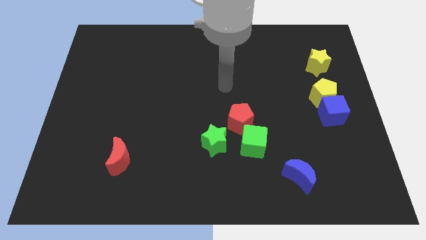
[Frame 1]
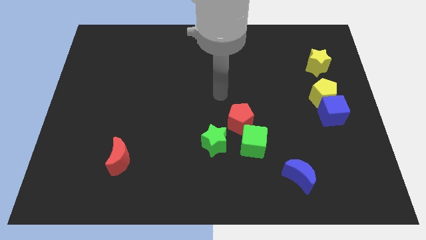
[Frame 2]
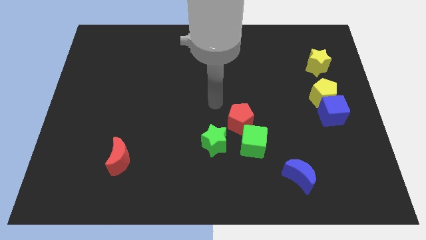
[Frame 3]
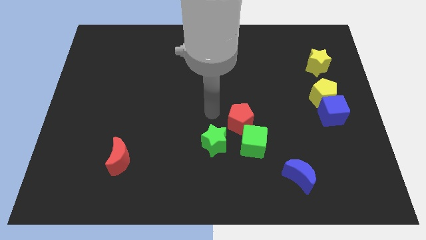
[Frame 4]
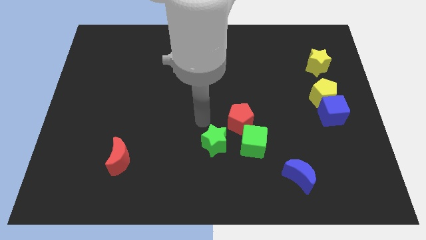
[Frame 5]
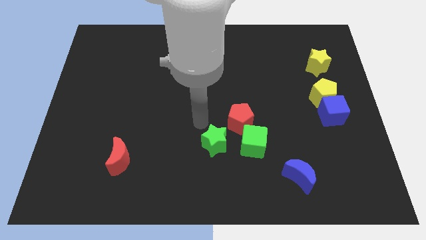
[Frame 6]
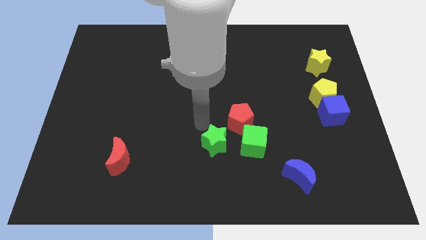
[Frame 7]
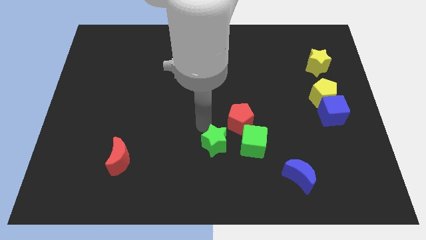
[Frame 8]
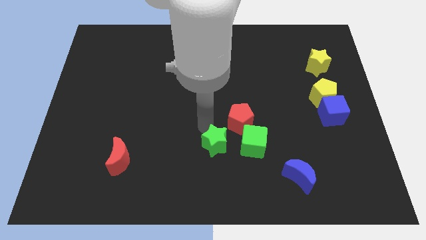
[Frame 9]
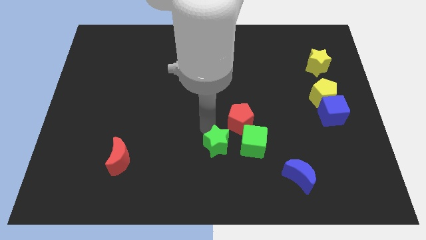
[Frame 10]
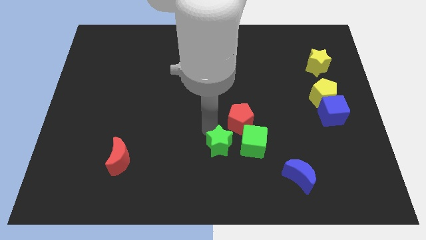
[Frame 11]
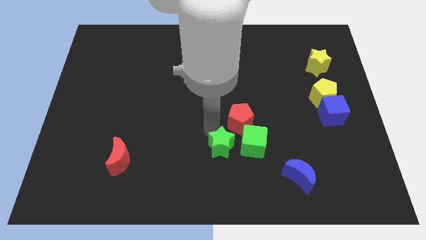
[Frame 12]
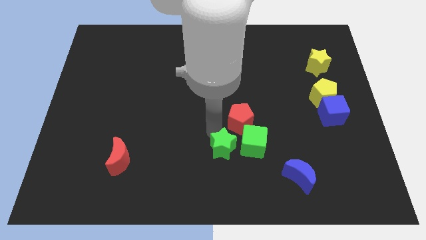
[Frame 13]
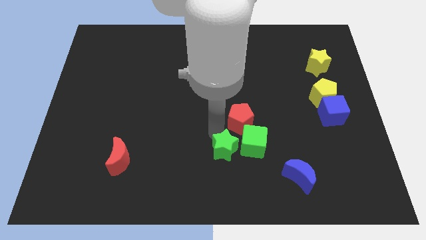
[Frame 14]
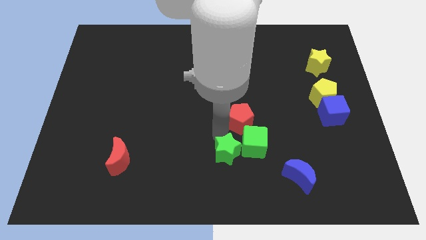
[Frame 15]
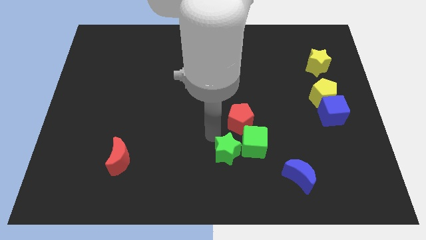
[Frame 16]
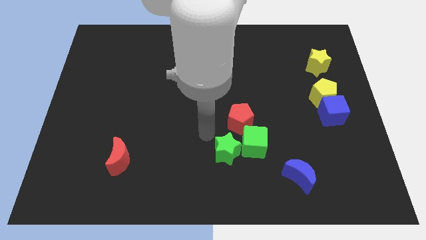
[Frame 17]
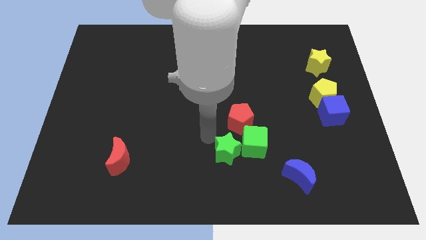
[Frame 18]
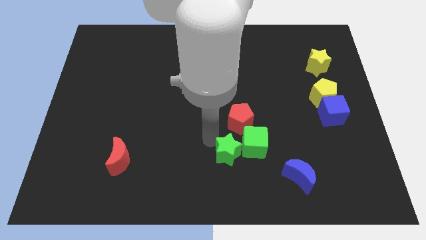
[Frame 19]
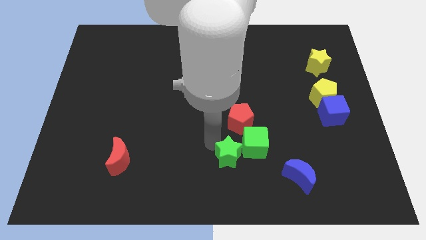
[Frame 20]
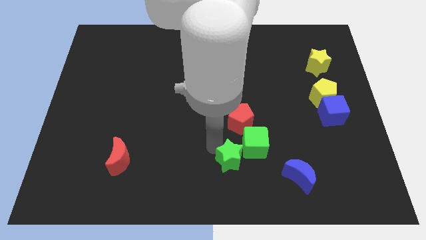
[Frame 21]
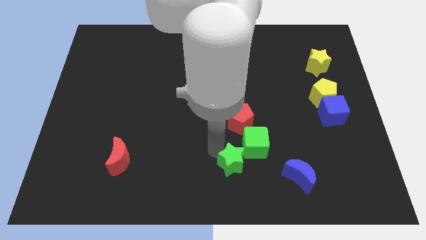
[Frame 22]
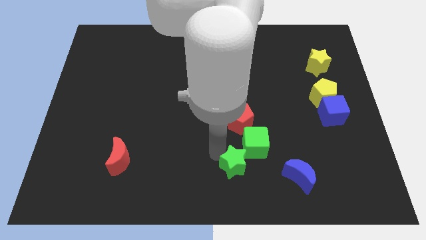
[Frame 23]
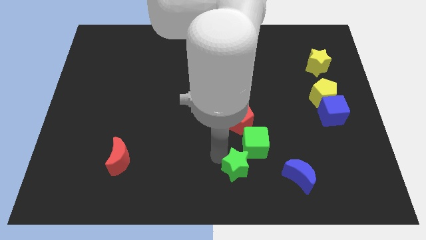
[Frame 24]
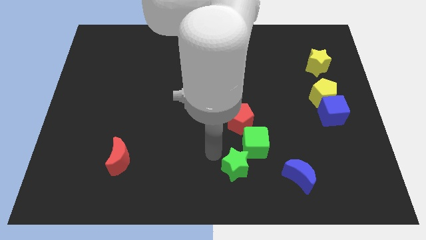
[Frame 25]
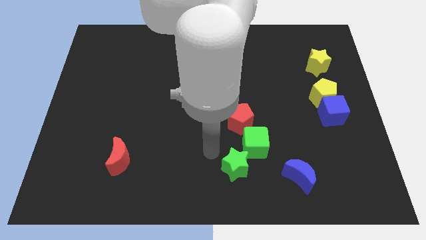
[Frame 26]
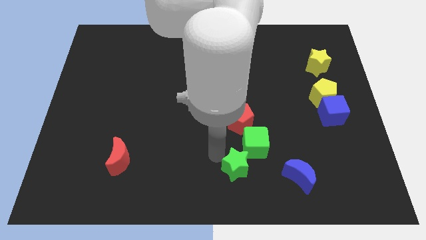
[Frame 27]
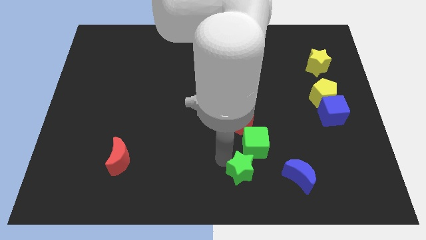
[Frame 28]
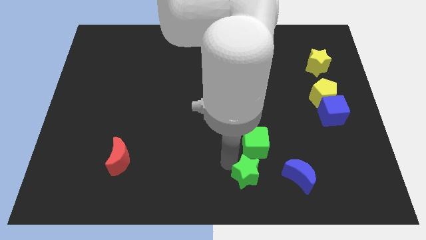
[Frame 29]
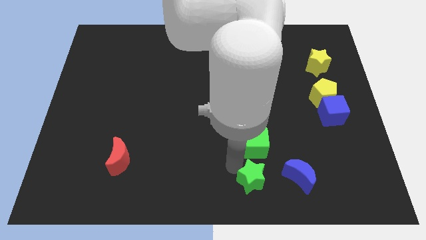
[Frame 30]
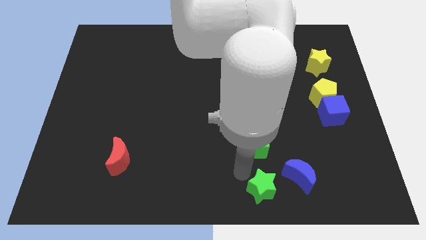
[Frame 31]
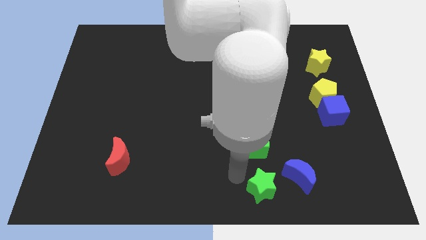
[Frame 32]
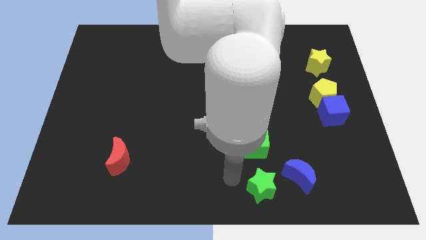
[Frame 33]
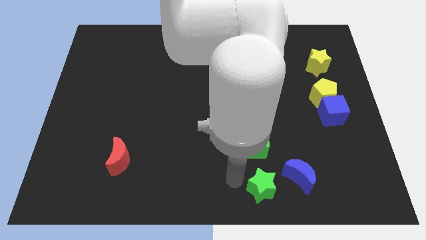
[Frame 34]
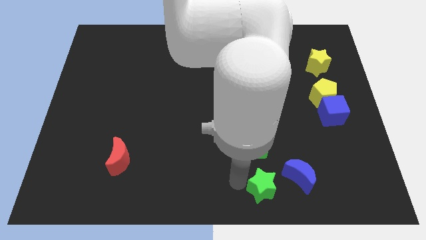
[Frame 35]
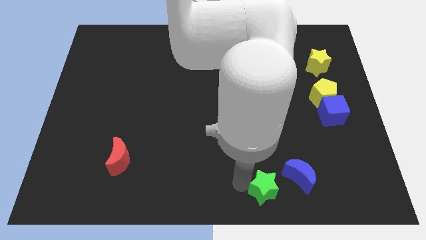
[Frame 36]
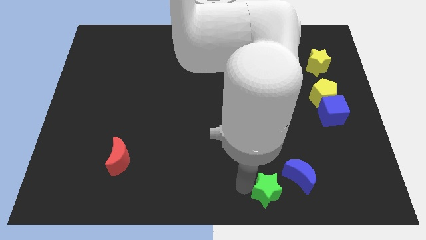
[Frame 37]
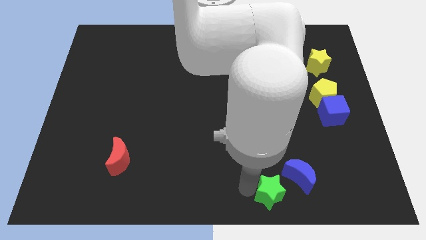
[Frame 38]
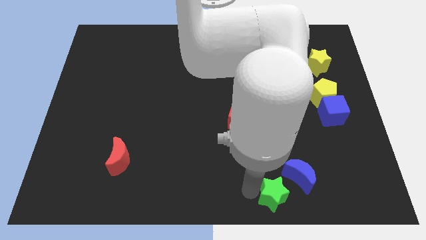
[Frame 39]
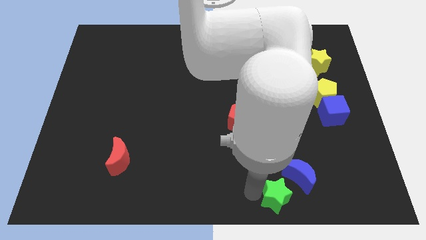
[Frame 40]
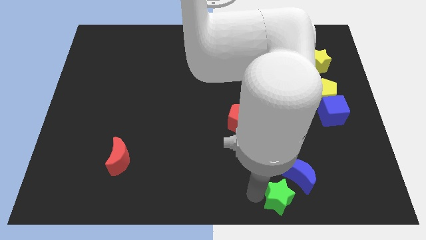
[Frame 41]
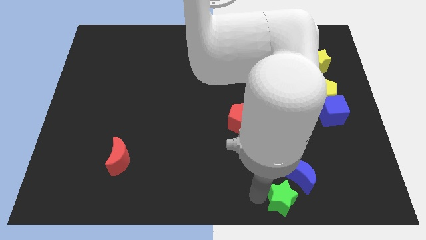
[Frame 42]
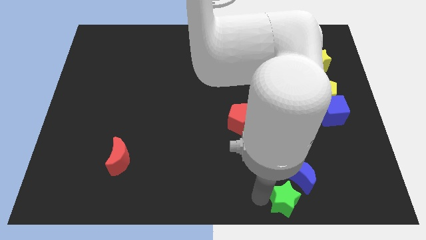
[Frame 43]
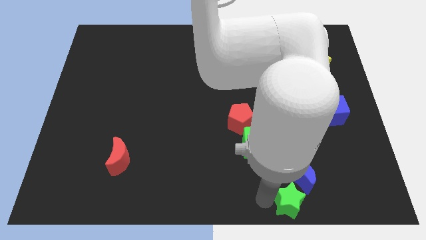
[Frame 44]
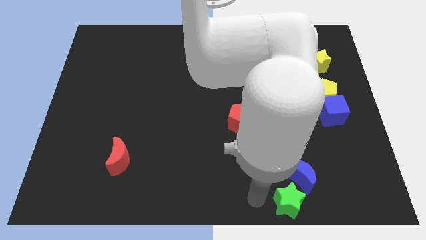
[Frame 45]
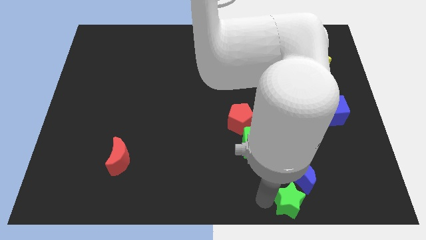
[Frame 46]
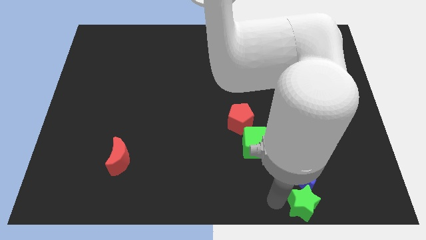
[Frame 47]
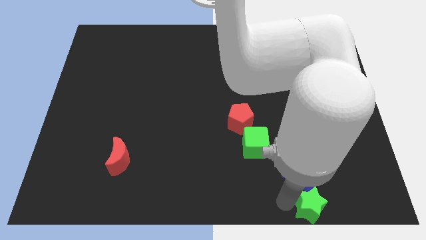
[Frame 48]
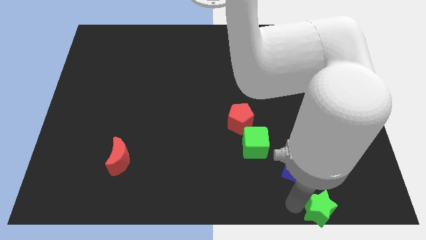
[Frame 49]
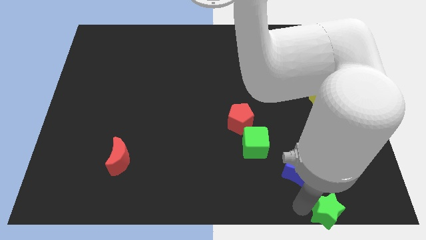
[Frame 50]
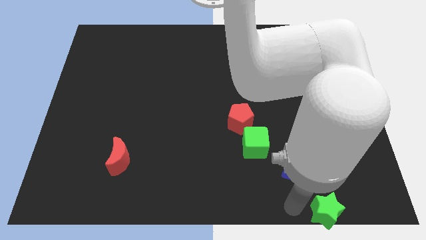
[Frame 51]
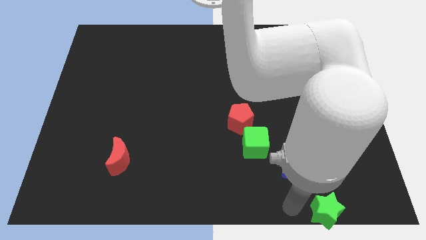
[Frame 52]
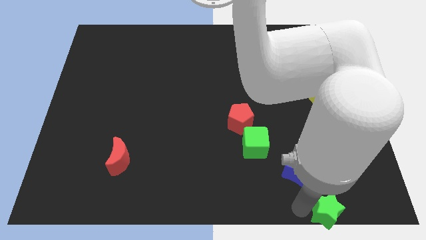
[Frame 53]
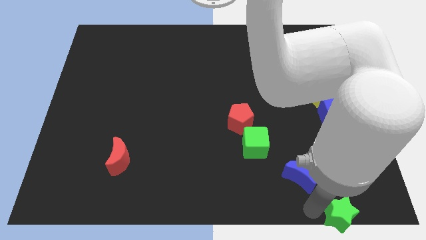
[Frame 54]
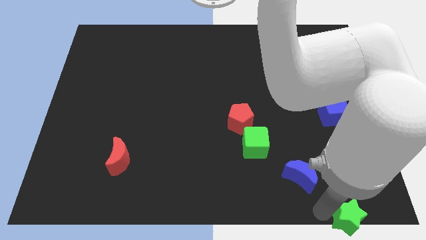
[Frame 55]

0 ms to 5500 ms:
put the green star to the bottom right corner

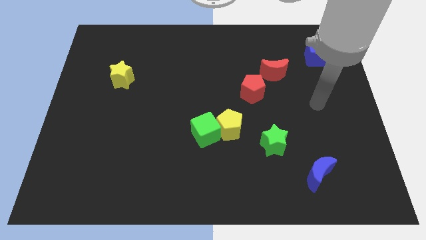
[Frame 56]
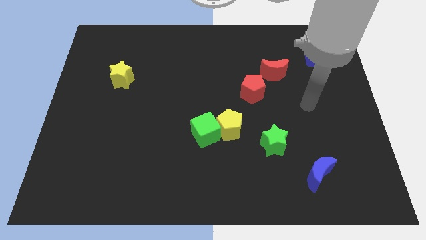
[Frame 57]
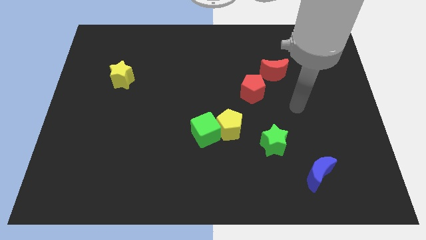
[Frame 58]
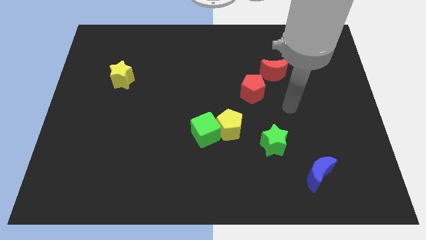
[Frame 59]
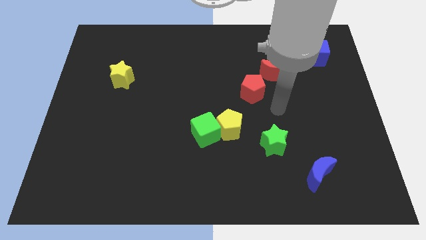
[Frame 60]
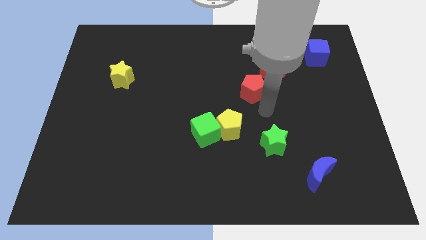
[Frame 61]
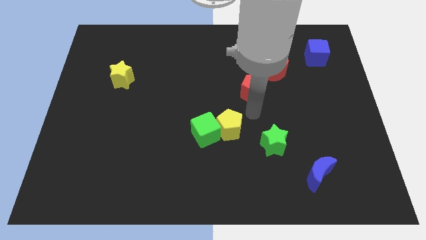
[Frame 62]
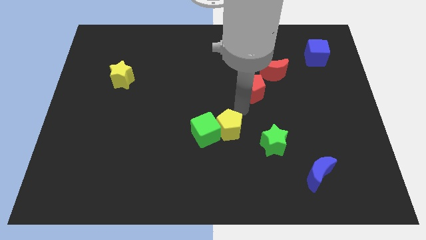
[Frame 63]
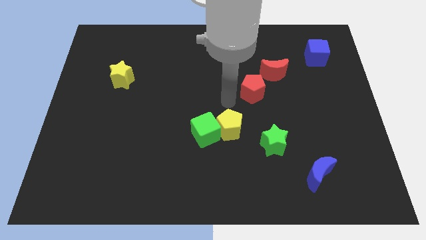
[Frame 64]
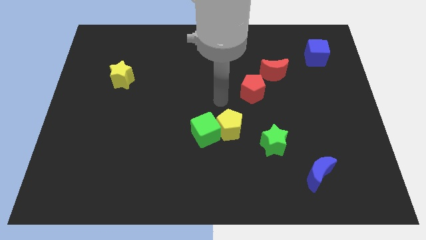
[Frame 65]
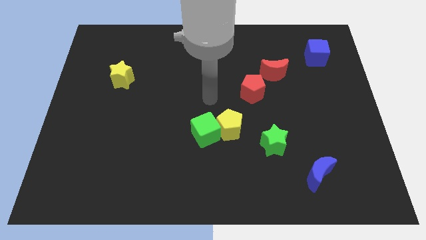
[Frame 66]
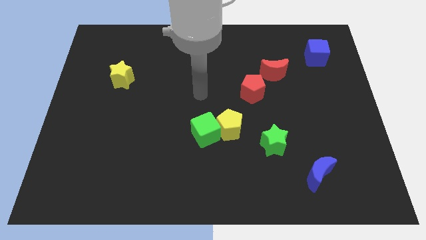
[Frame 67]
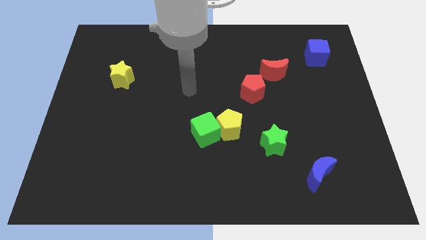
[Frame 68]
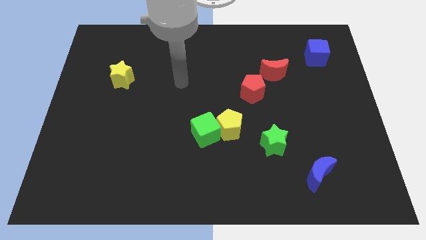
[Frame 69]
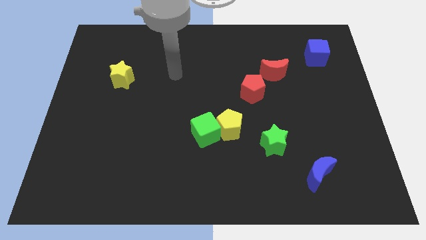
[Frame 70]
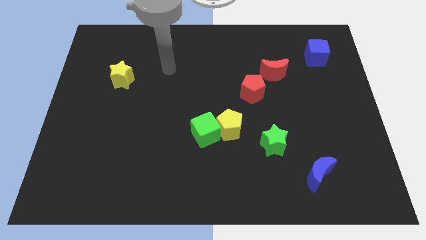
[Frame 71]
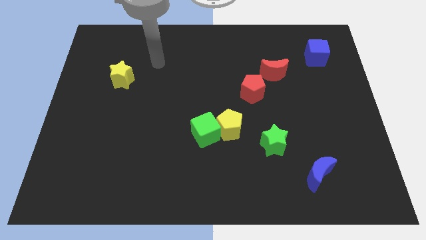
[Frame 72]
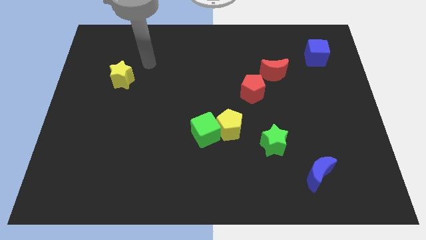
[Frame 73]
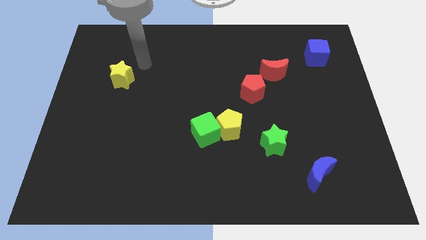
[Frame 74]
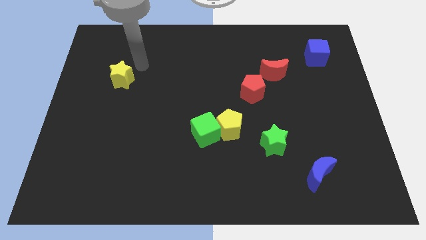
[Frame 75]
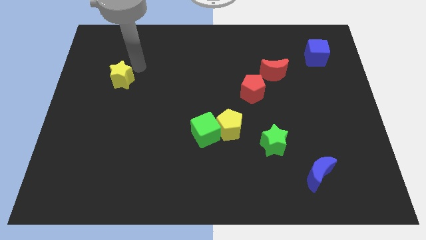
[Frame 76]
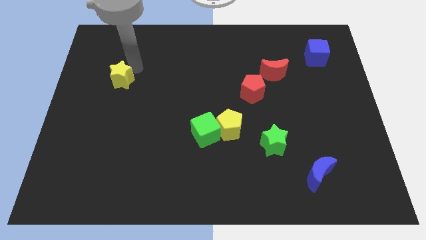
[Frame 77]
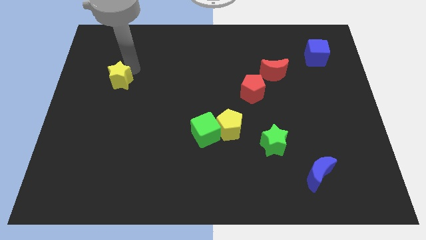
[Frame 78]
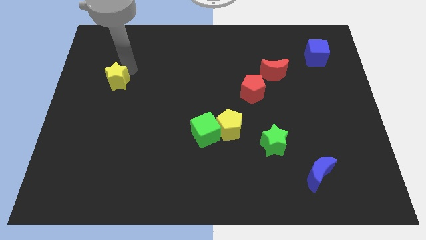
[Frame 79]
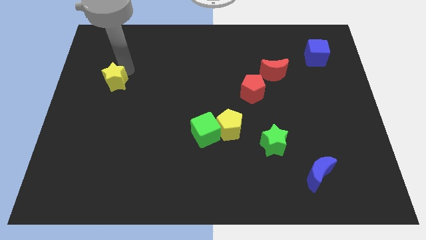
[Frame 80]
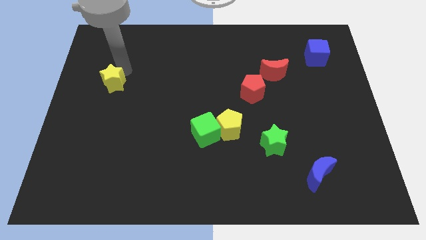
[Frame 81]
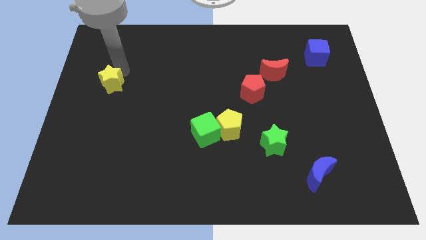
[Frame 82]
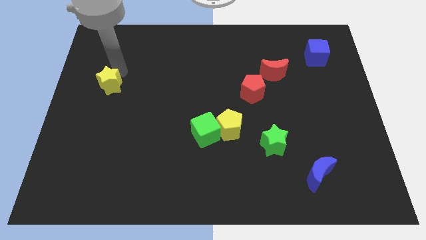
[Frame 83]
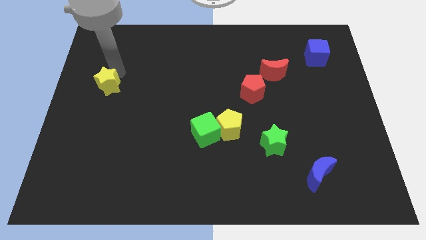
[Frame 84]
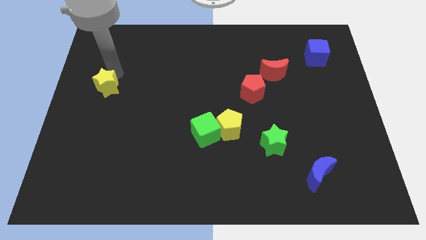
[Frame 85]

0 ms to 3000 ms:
slide the yellow star to the left side of the board
